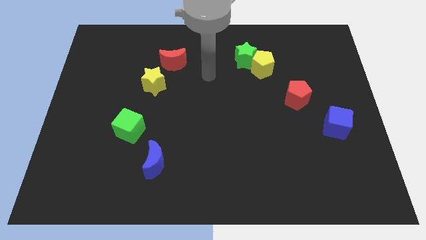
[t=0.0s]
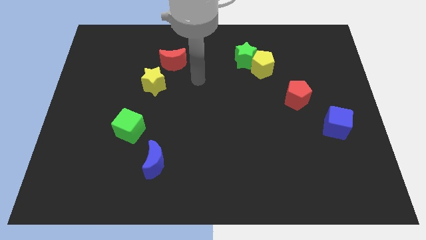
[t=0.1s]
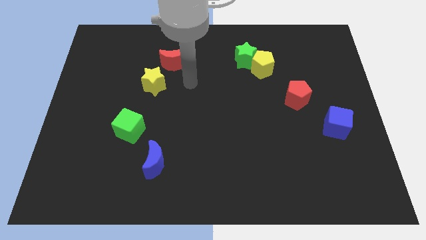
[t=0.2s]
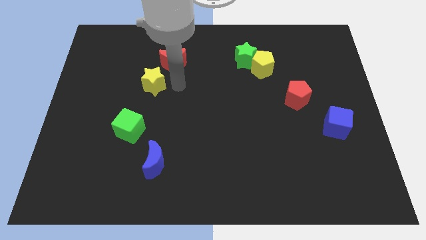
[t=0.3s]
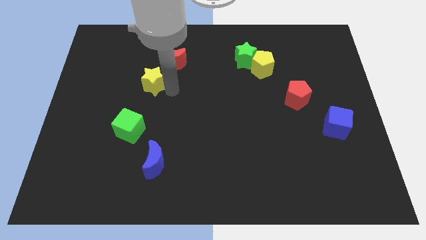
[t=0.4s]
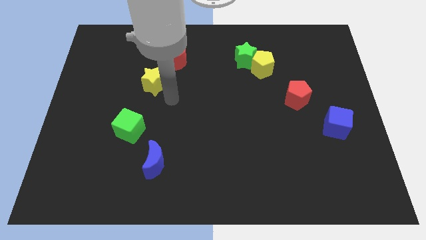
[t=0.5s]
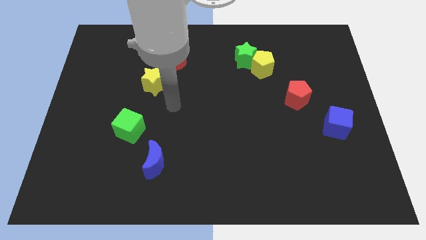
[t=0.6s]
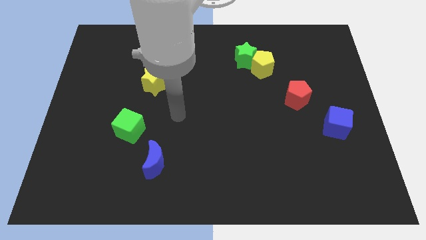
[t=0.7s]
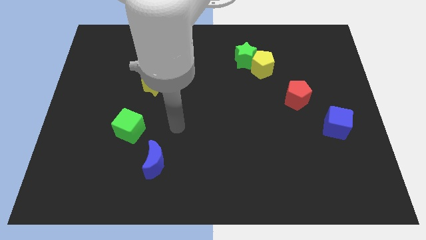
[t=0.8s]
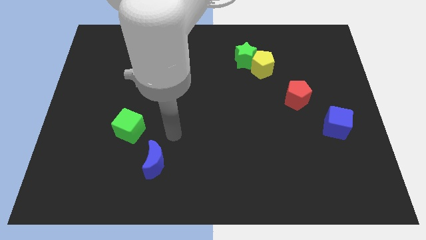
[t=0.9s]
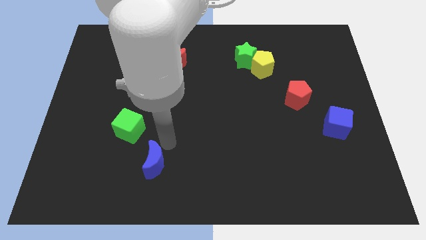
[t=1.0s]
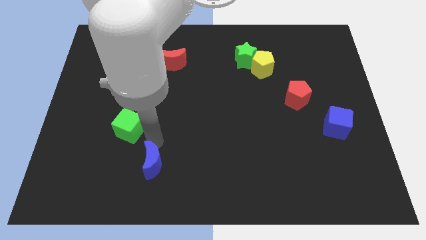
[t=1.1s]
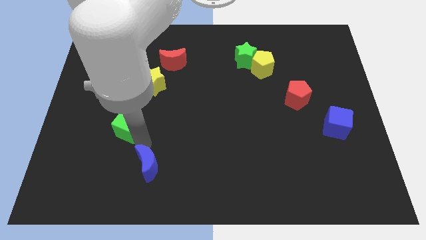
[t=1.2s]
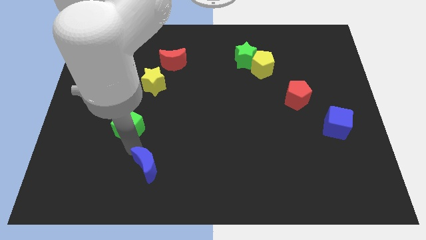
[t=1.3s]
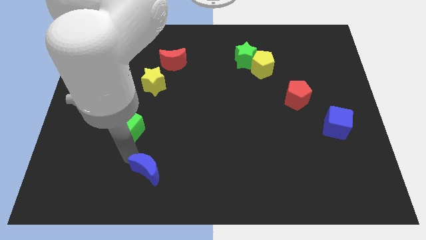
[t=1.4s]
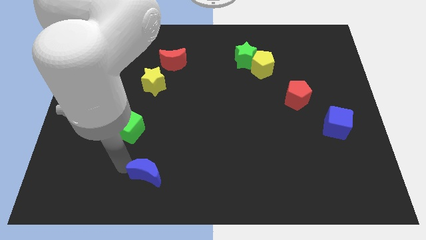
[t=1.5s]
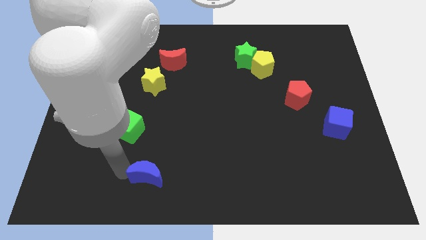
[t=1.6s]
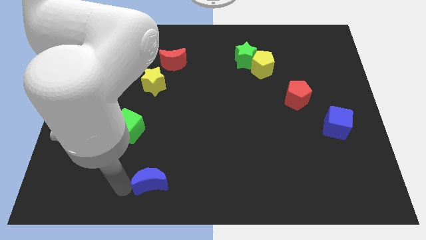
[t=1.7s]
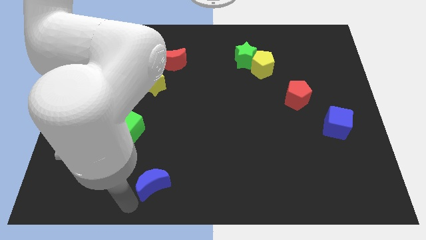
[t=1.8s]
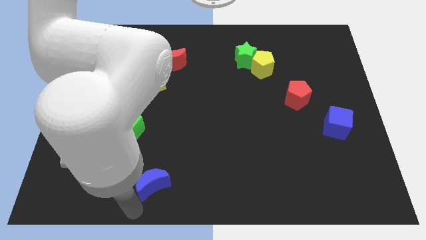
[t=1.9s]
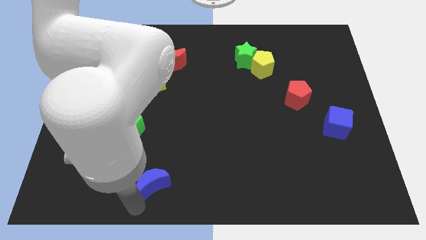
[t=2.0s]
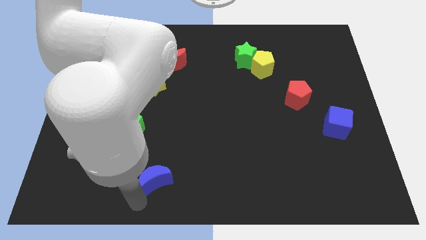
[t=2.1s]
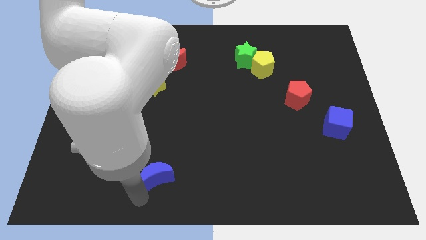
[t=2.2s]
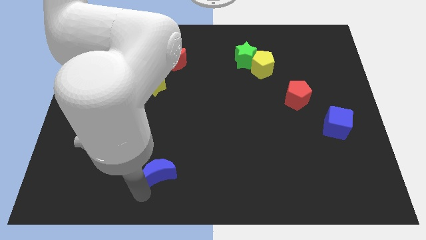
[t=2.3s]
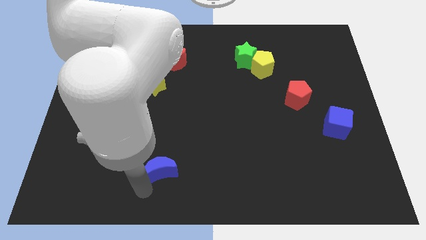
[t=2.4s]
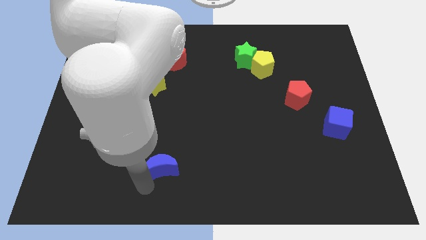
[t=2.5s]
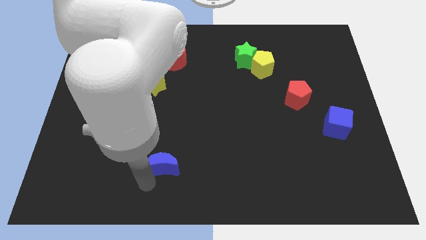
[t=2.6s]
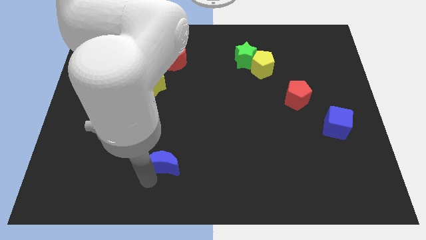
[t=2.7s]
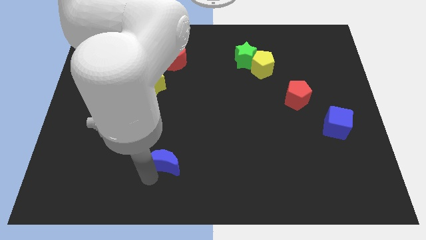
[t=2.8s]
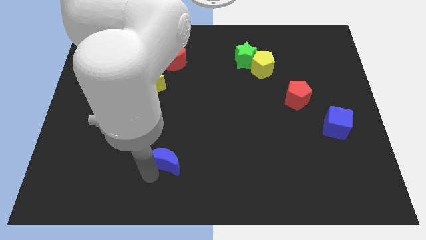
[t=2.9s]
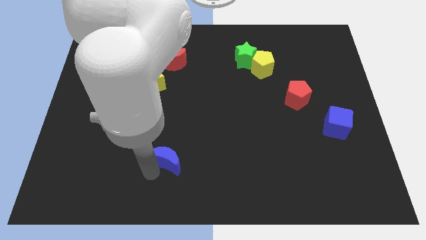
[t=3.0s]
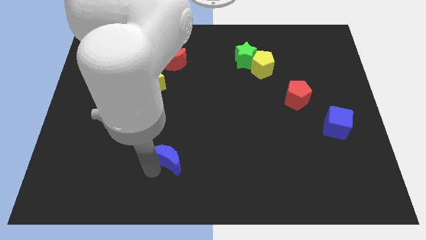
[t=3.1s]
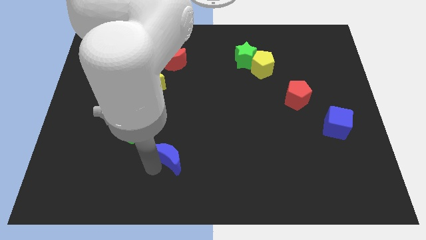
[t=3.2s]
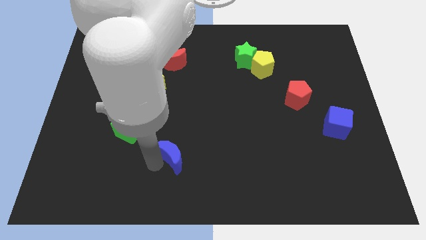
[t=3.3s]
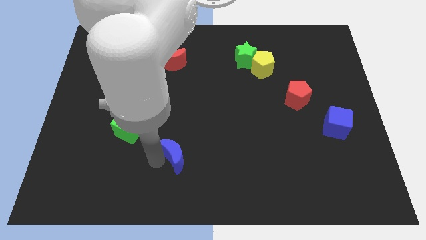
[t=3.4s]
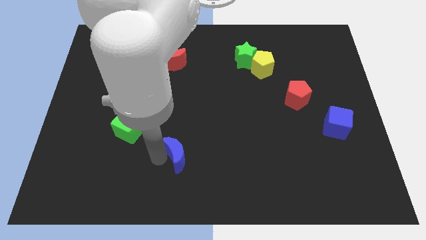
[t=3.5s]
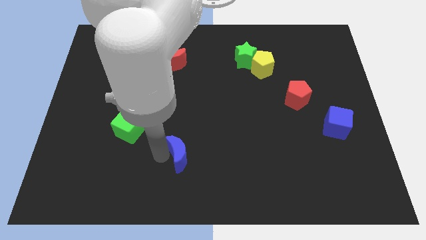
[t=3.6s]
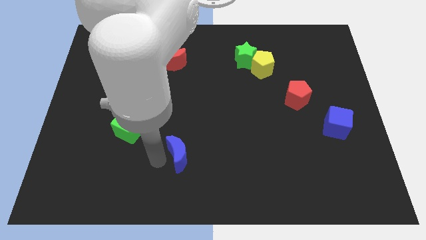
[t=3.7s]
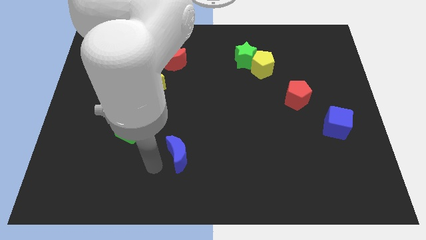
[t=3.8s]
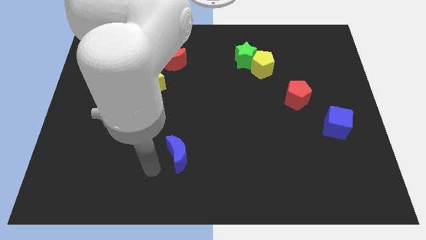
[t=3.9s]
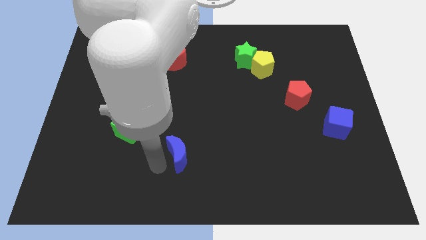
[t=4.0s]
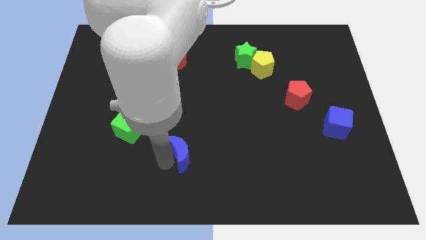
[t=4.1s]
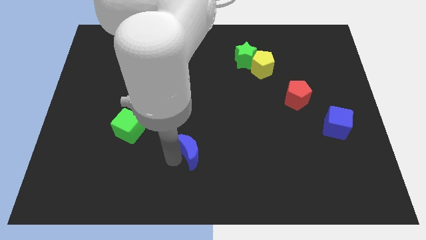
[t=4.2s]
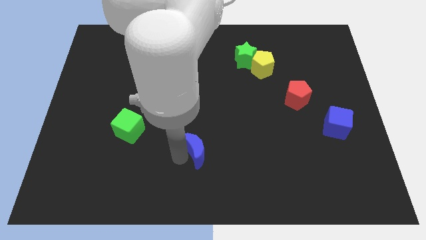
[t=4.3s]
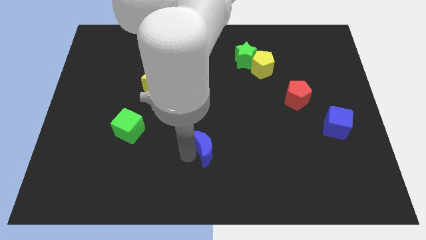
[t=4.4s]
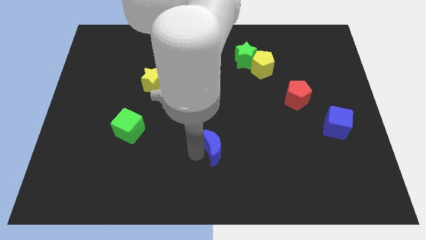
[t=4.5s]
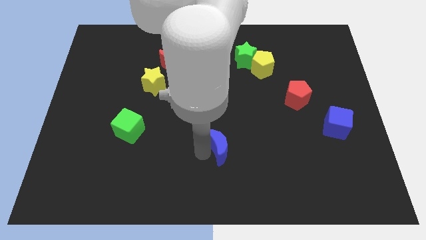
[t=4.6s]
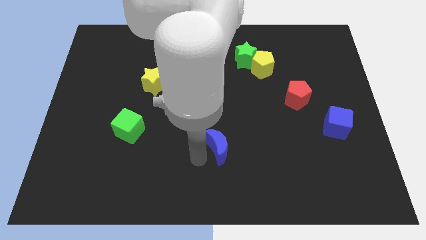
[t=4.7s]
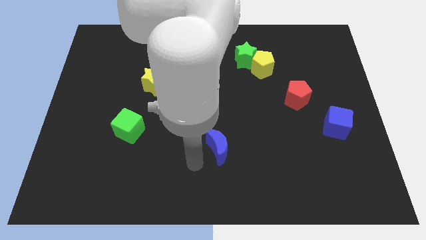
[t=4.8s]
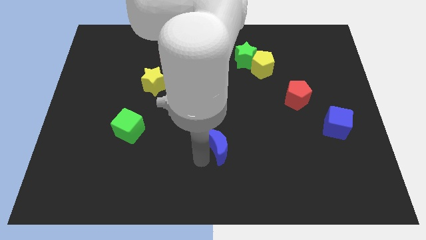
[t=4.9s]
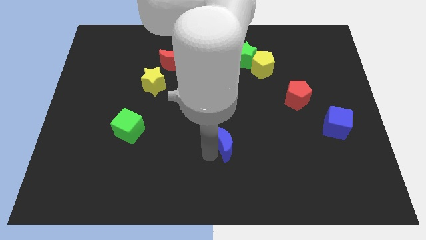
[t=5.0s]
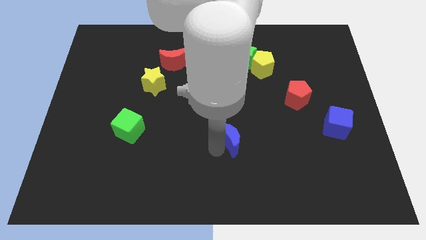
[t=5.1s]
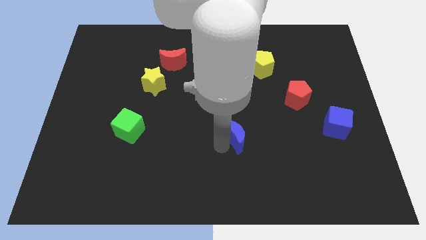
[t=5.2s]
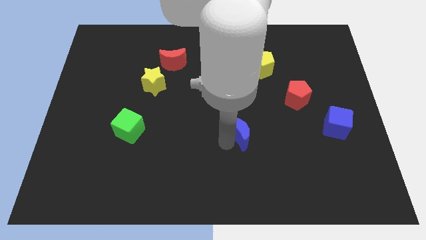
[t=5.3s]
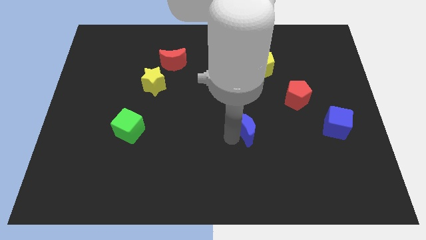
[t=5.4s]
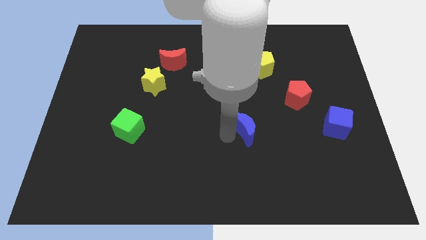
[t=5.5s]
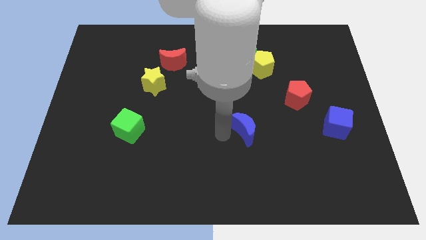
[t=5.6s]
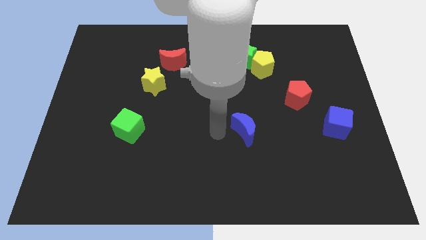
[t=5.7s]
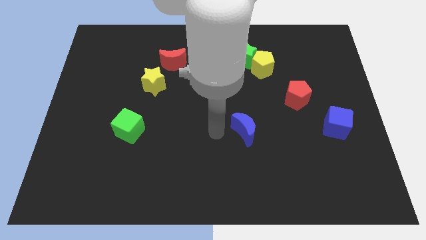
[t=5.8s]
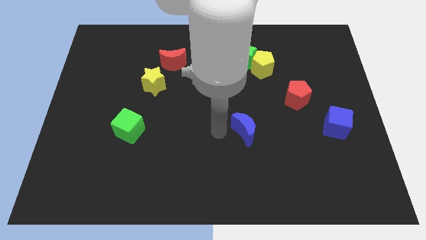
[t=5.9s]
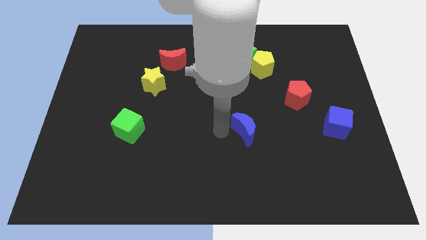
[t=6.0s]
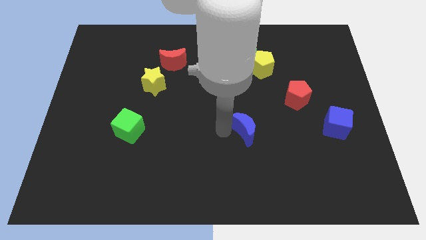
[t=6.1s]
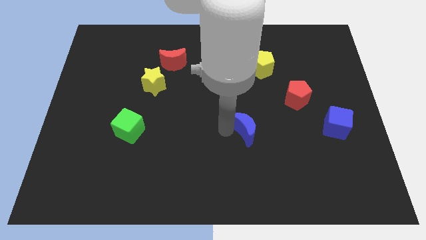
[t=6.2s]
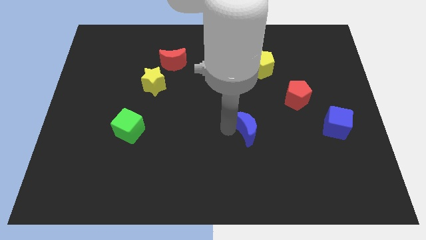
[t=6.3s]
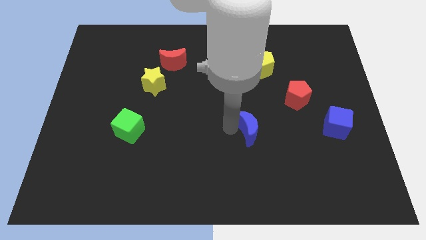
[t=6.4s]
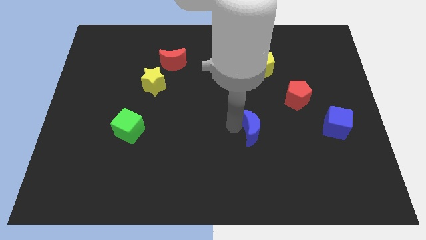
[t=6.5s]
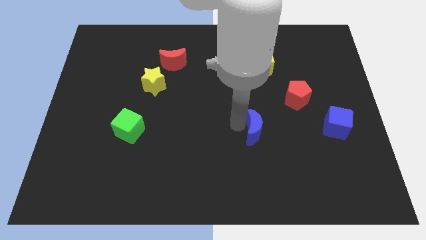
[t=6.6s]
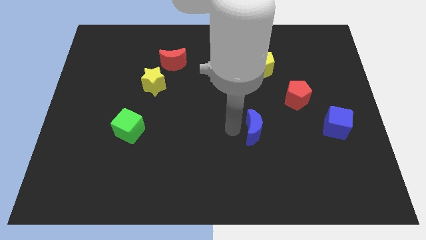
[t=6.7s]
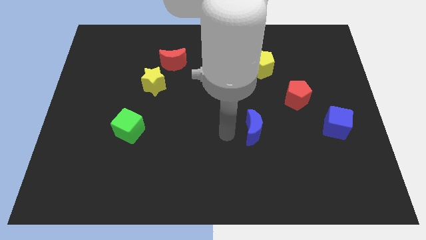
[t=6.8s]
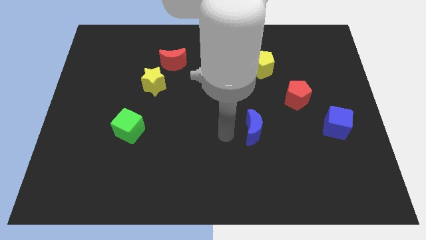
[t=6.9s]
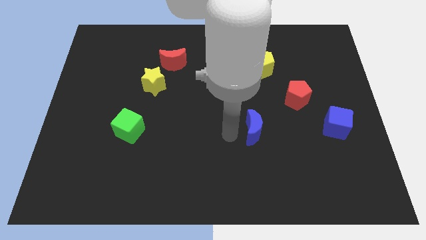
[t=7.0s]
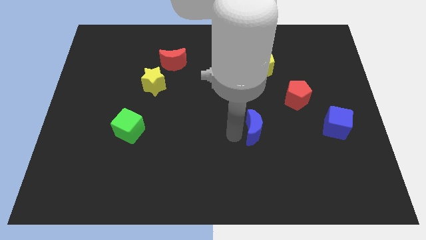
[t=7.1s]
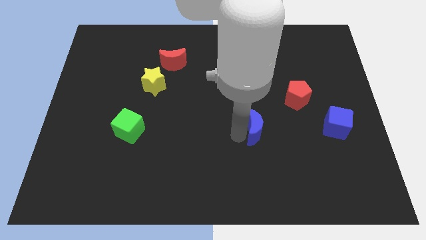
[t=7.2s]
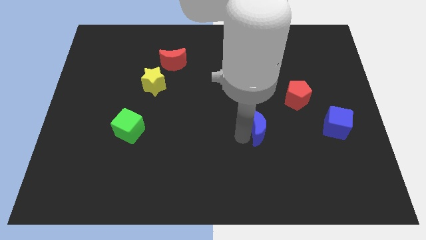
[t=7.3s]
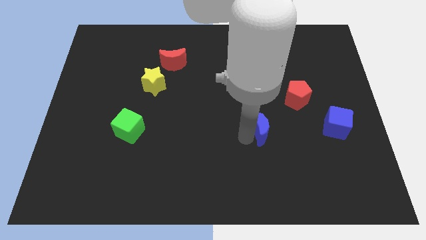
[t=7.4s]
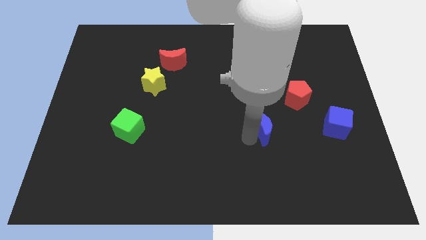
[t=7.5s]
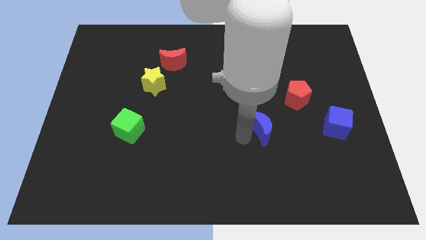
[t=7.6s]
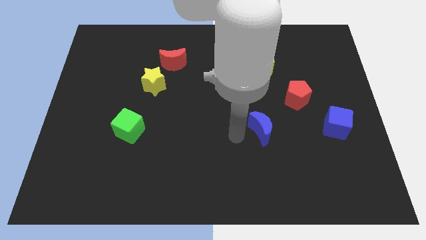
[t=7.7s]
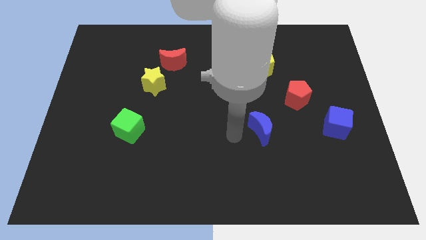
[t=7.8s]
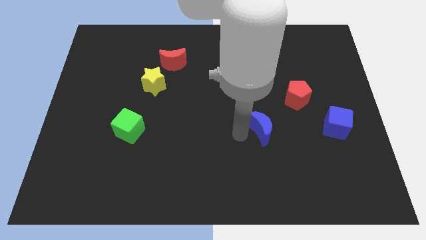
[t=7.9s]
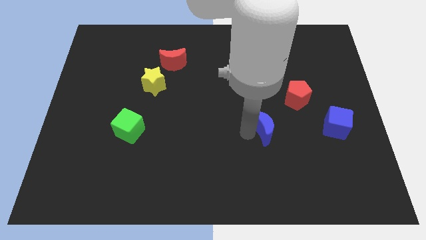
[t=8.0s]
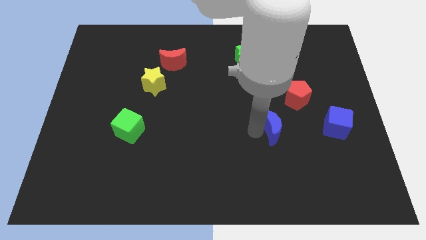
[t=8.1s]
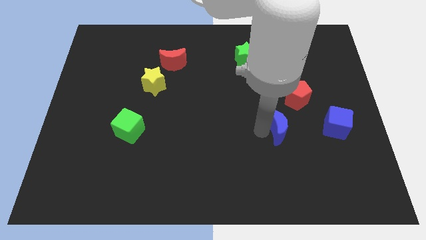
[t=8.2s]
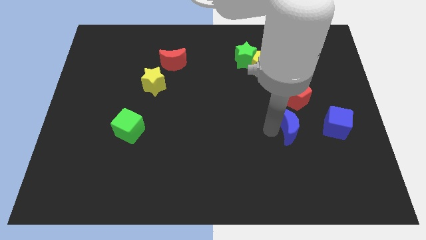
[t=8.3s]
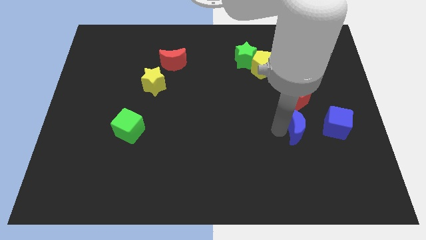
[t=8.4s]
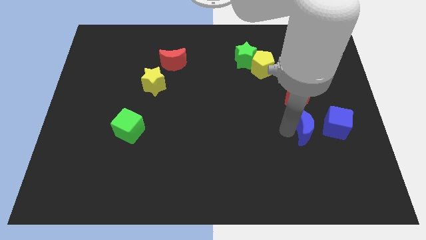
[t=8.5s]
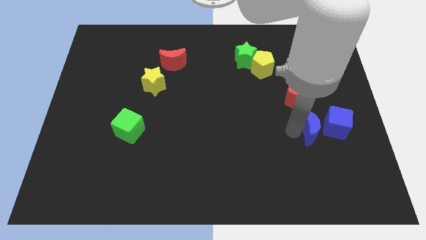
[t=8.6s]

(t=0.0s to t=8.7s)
slide the blue moon close to the blue cube
